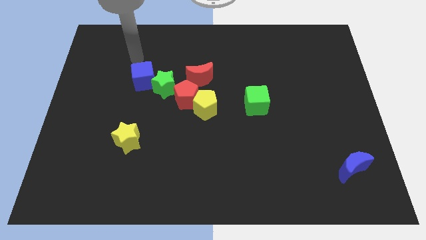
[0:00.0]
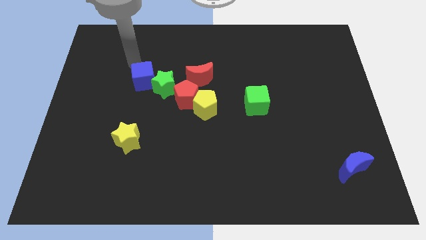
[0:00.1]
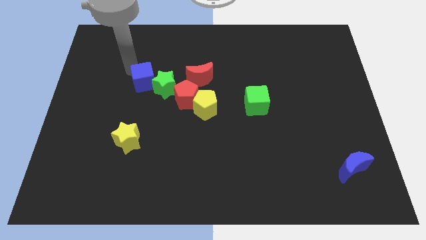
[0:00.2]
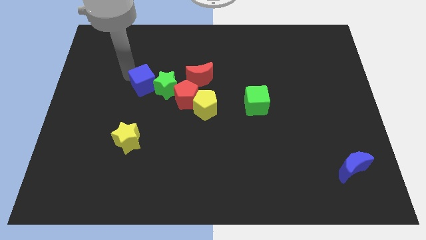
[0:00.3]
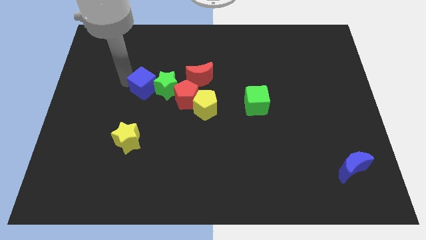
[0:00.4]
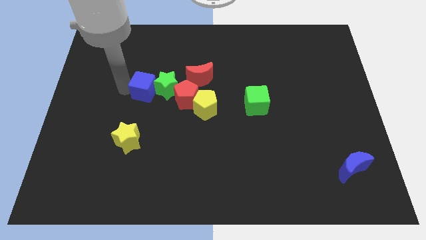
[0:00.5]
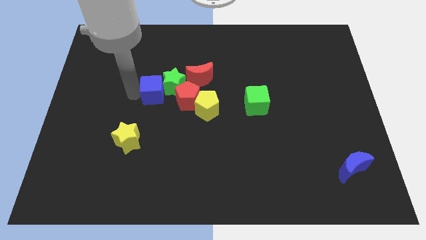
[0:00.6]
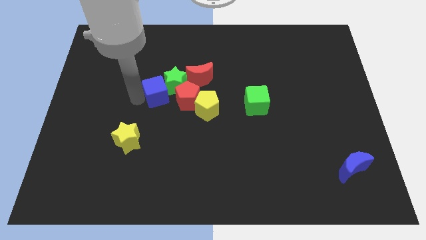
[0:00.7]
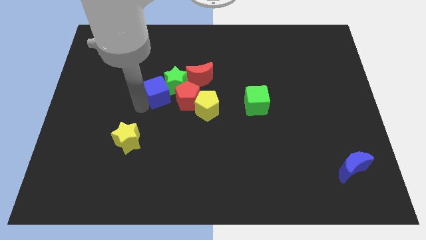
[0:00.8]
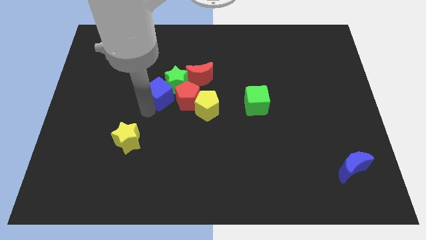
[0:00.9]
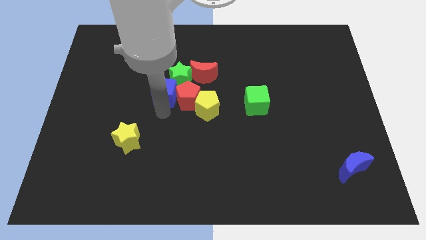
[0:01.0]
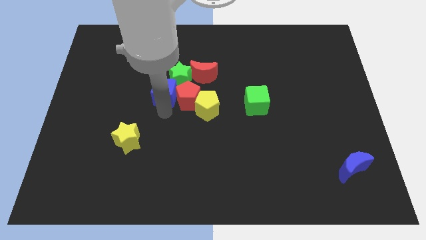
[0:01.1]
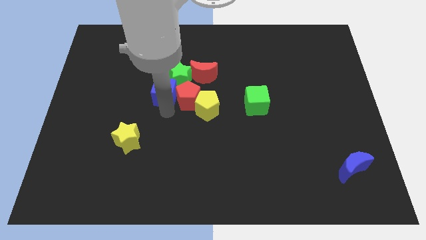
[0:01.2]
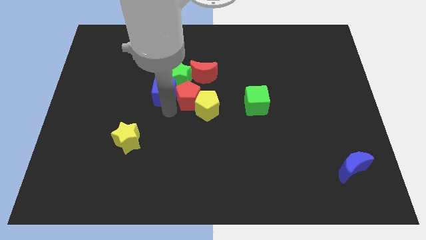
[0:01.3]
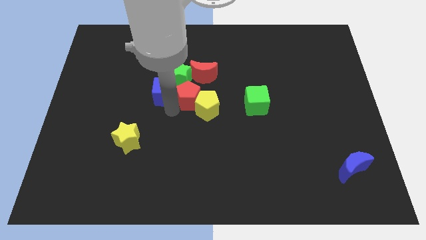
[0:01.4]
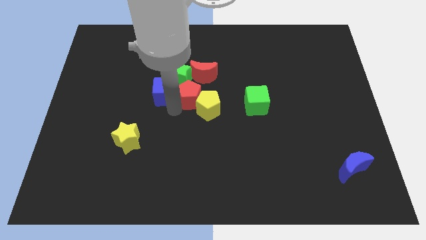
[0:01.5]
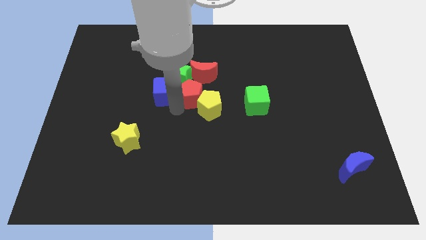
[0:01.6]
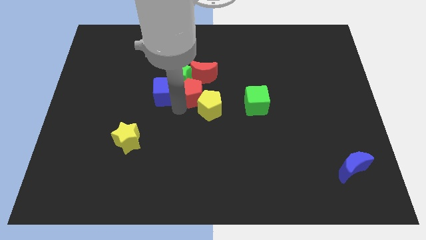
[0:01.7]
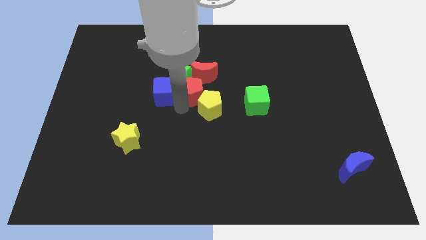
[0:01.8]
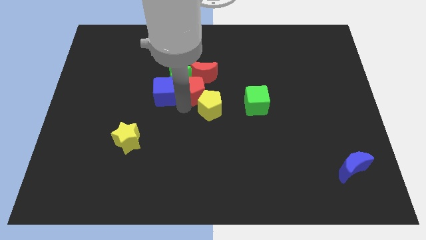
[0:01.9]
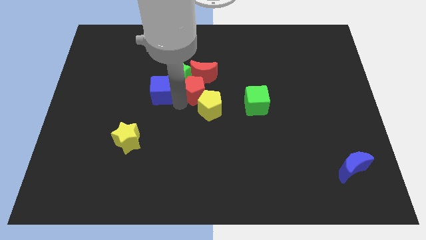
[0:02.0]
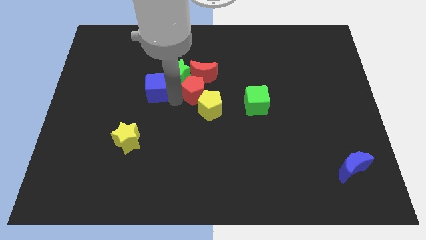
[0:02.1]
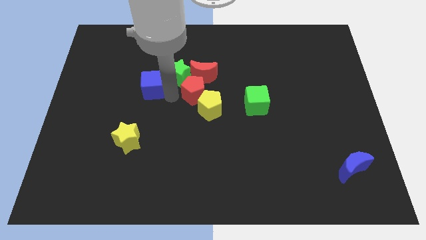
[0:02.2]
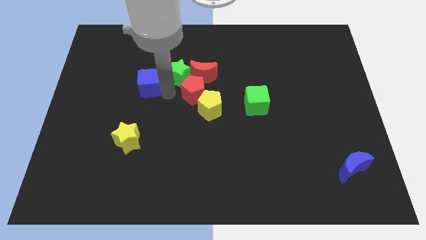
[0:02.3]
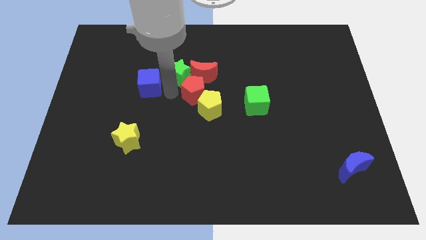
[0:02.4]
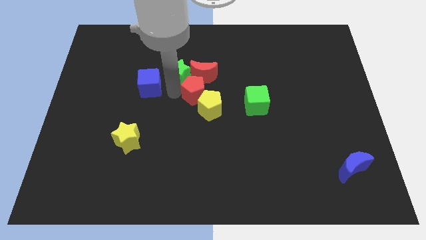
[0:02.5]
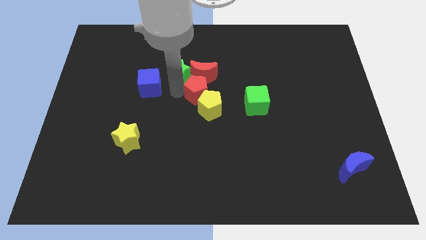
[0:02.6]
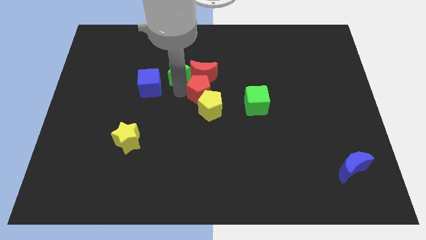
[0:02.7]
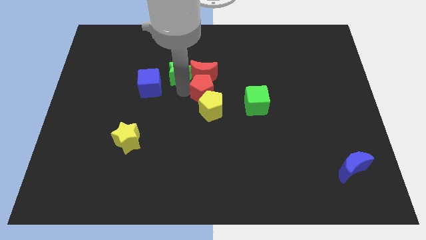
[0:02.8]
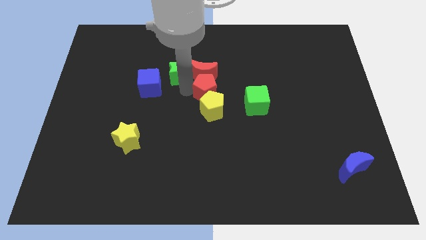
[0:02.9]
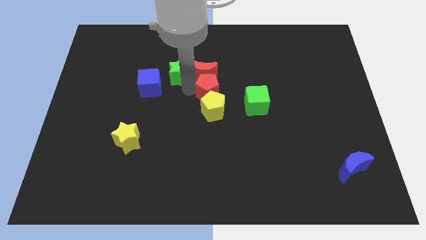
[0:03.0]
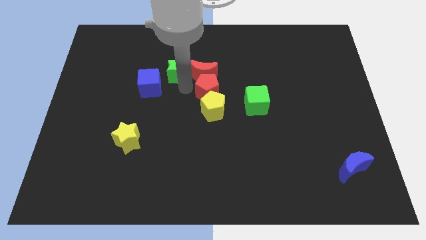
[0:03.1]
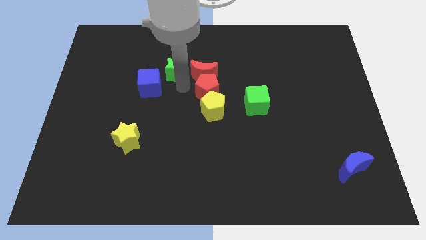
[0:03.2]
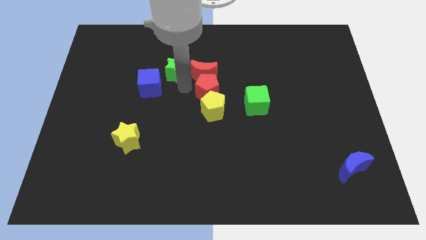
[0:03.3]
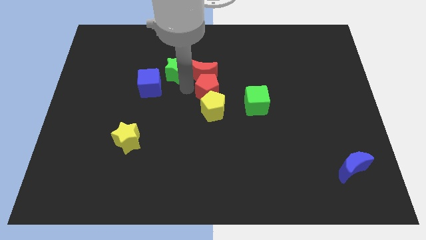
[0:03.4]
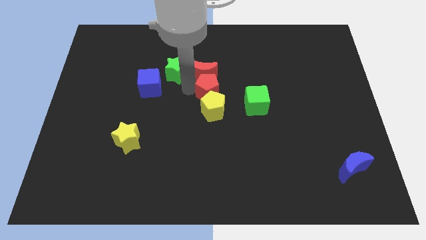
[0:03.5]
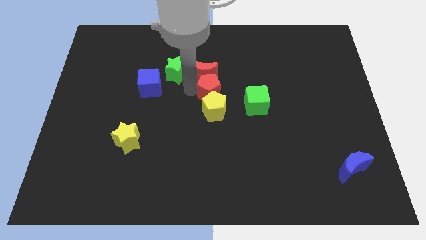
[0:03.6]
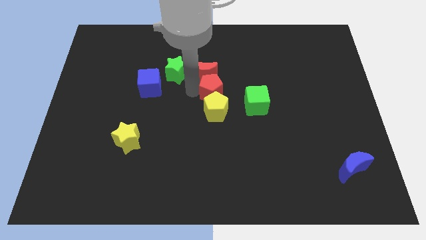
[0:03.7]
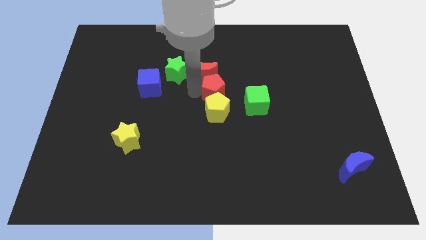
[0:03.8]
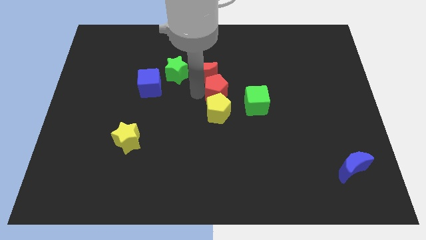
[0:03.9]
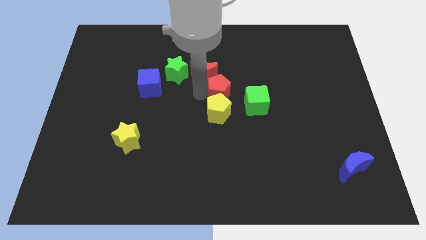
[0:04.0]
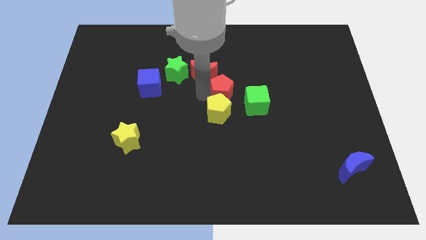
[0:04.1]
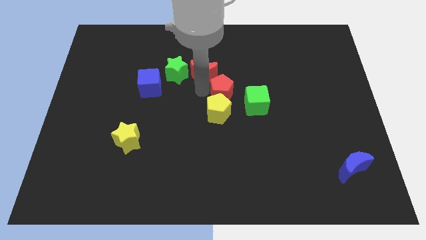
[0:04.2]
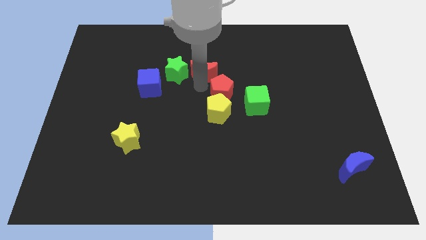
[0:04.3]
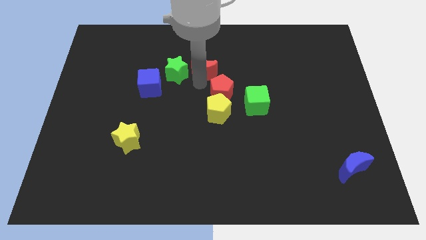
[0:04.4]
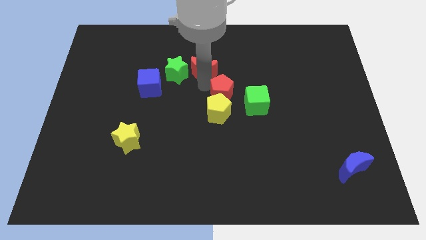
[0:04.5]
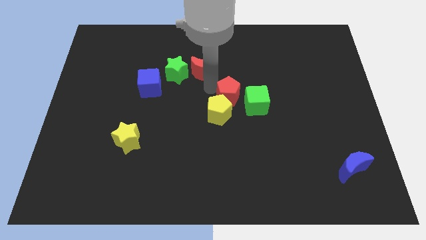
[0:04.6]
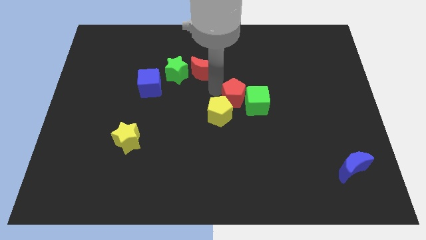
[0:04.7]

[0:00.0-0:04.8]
put the red pentagon towards the green cube

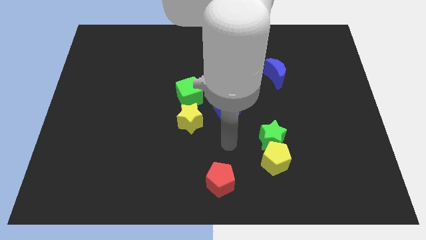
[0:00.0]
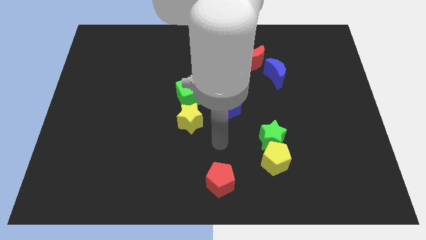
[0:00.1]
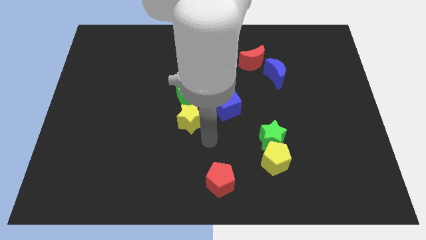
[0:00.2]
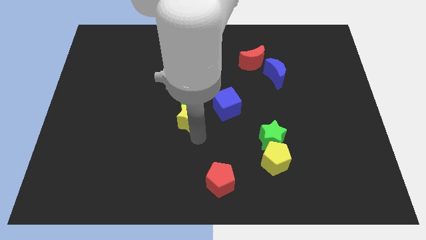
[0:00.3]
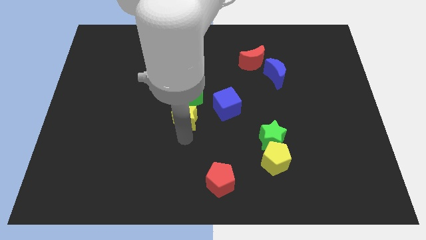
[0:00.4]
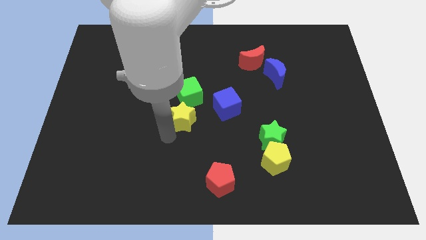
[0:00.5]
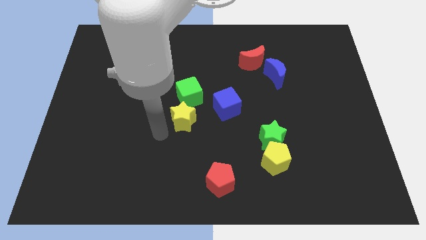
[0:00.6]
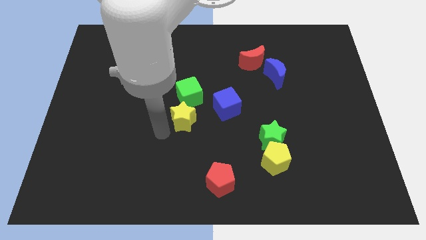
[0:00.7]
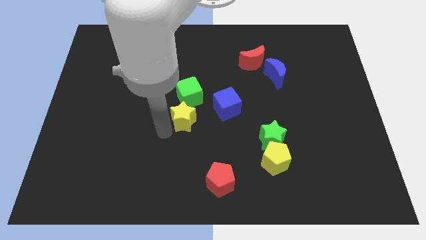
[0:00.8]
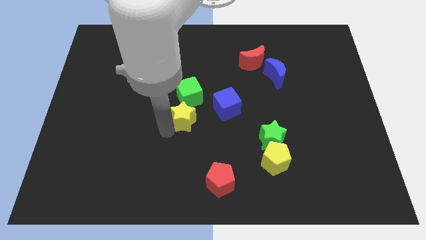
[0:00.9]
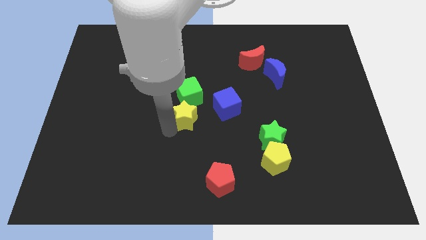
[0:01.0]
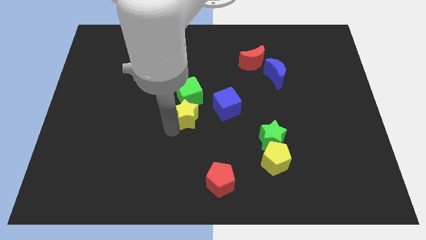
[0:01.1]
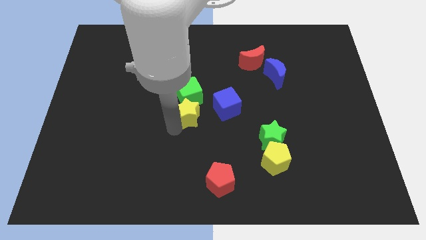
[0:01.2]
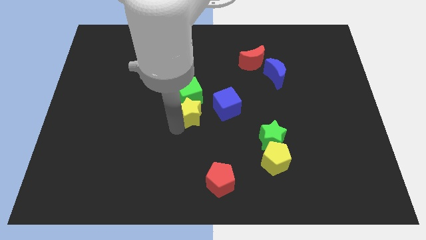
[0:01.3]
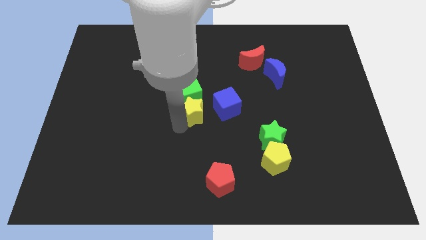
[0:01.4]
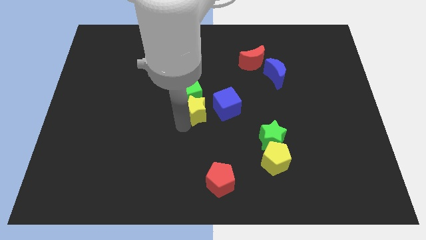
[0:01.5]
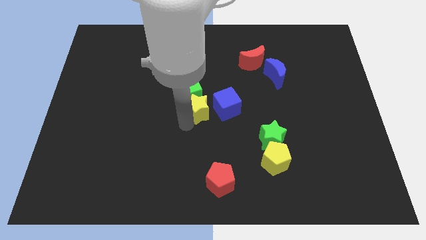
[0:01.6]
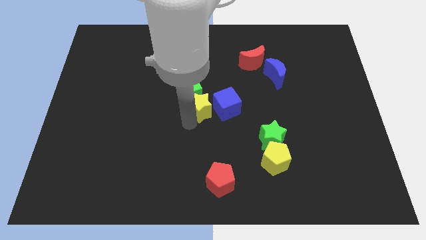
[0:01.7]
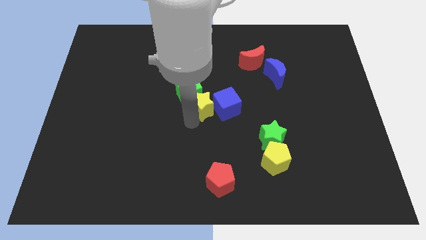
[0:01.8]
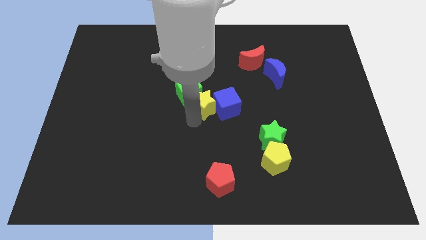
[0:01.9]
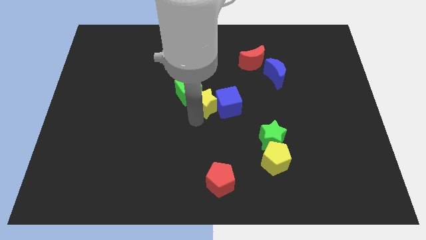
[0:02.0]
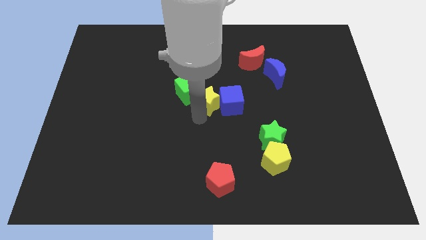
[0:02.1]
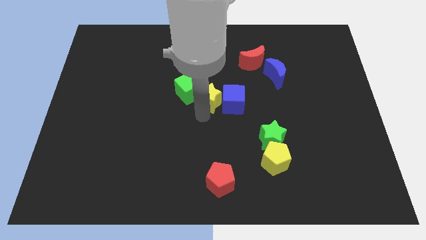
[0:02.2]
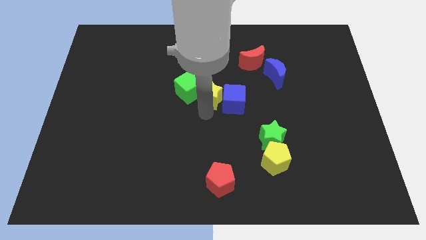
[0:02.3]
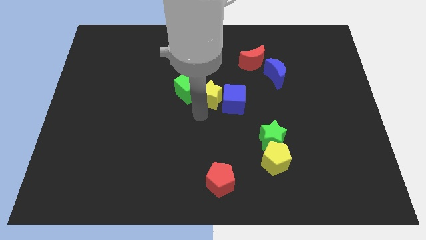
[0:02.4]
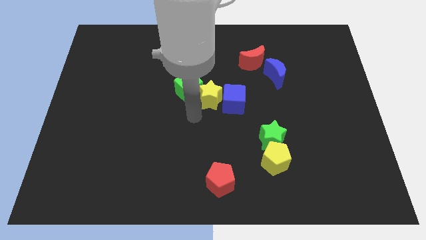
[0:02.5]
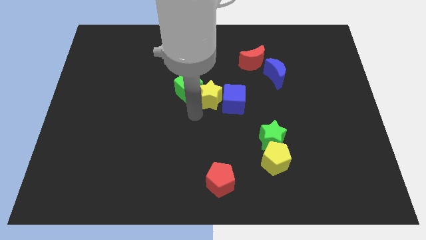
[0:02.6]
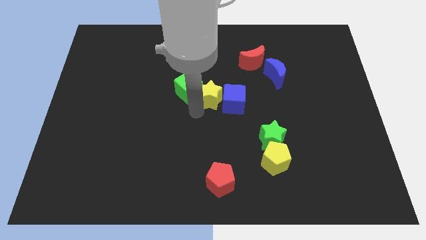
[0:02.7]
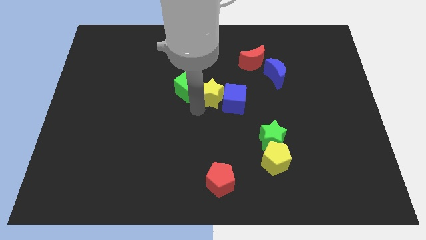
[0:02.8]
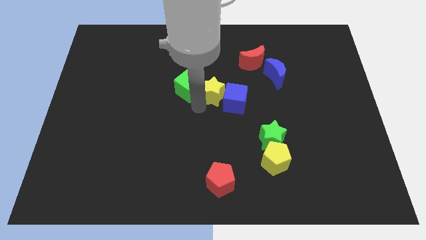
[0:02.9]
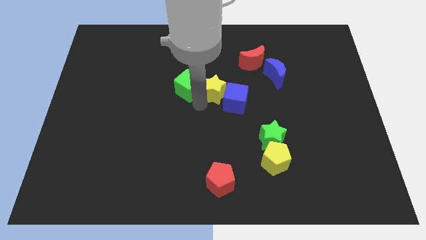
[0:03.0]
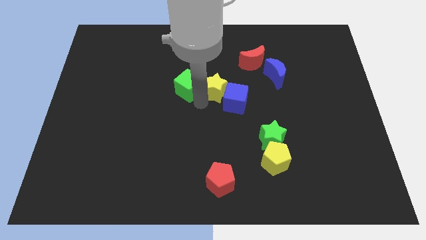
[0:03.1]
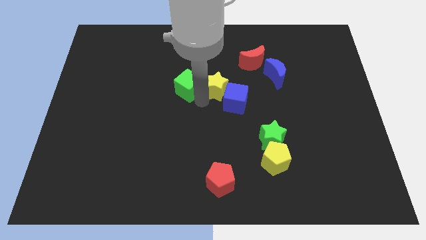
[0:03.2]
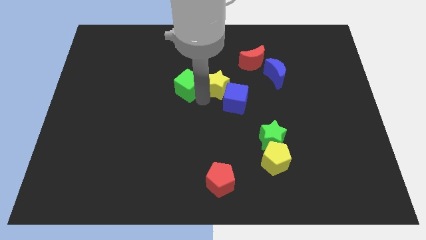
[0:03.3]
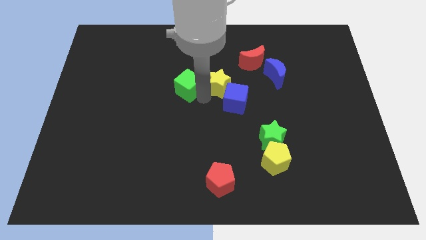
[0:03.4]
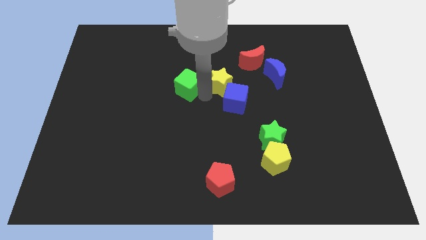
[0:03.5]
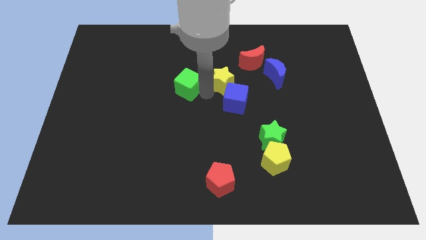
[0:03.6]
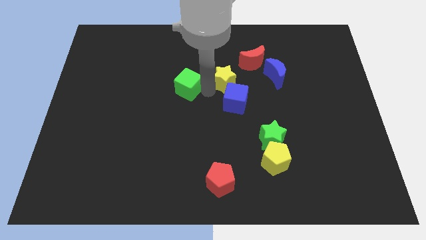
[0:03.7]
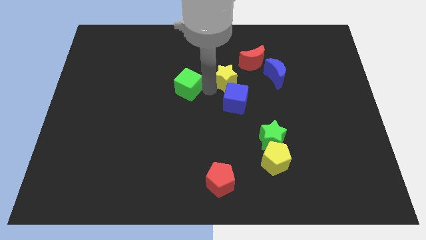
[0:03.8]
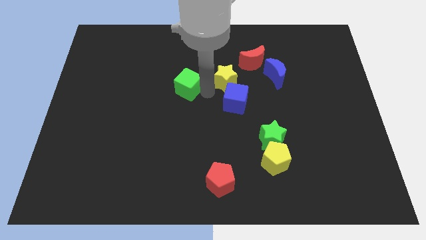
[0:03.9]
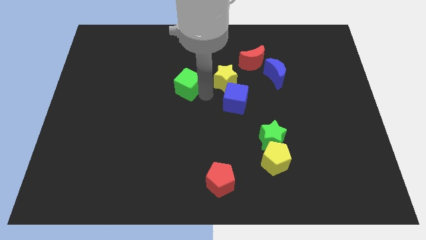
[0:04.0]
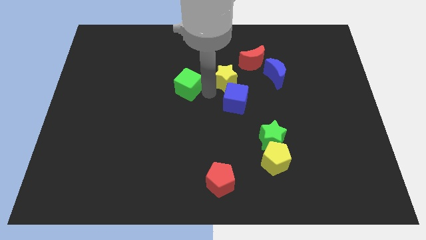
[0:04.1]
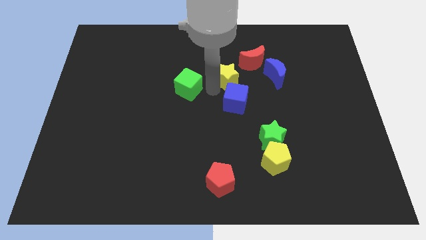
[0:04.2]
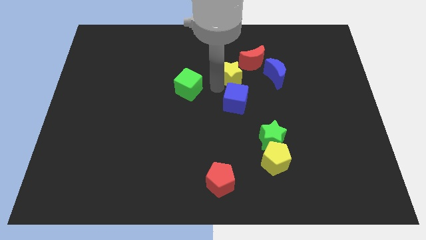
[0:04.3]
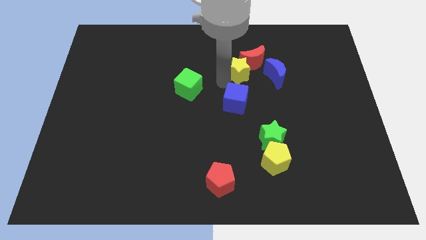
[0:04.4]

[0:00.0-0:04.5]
push the yellow star close to the red moon
